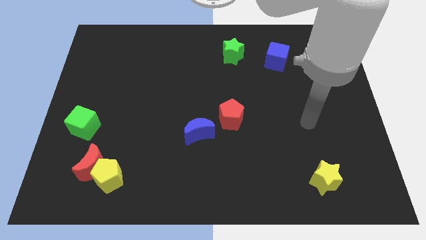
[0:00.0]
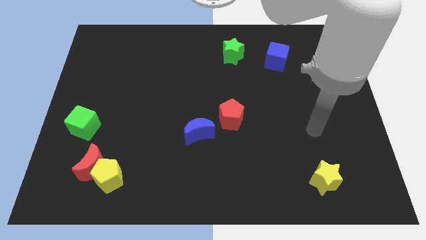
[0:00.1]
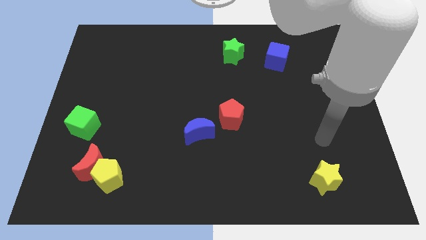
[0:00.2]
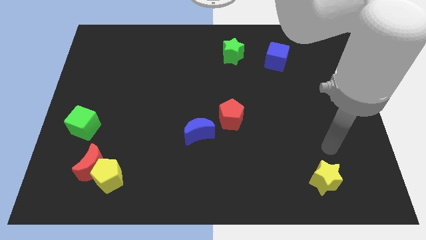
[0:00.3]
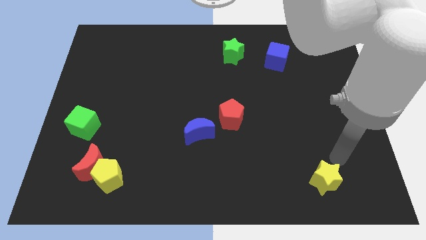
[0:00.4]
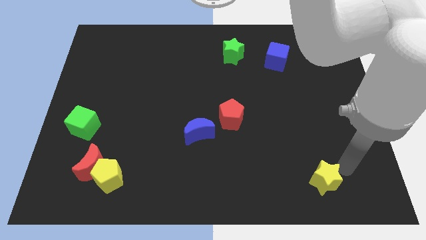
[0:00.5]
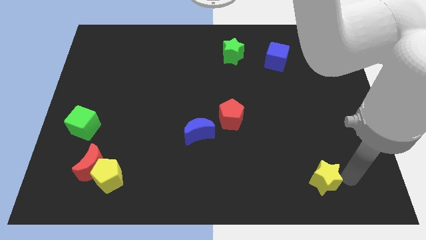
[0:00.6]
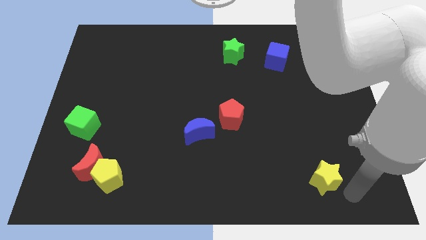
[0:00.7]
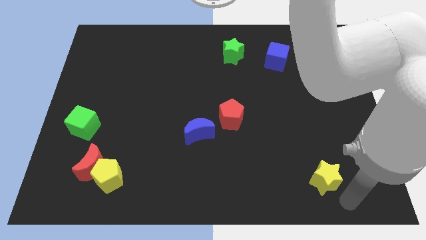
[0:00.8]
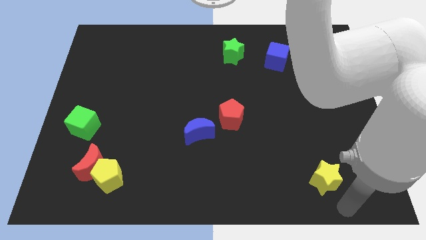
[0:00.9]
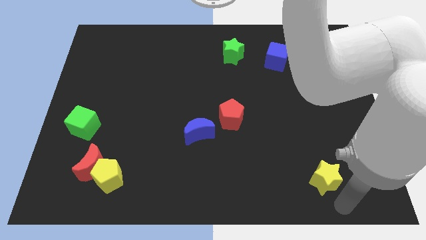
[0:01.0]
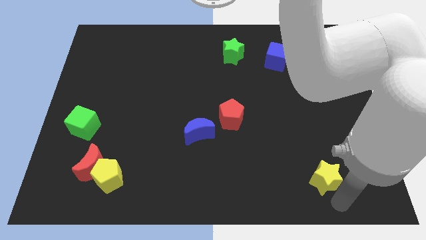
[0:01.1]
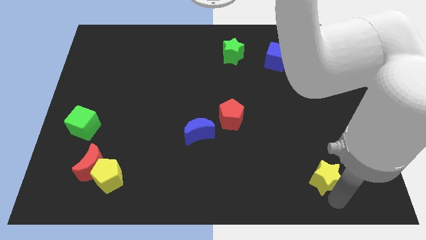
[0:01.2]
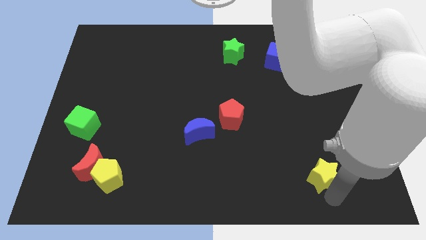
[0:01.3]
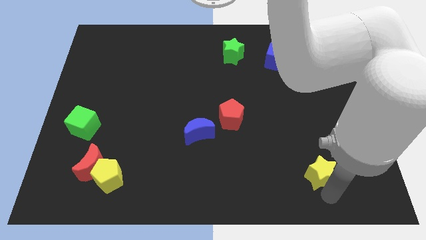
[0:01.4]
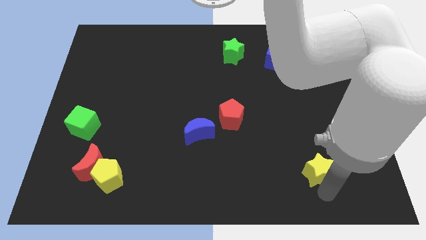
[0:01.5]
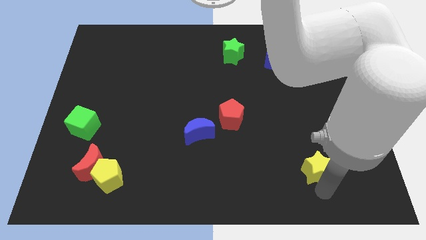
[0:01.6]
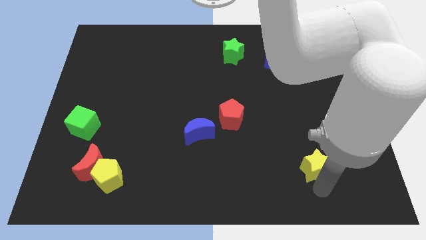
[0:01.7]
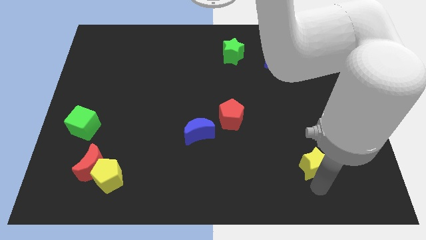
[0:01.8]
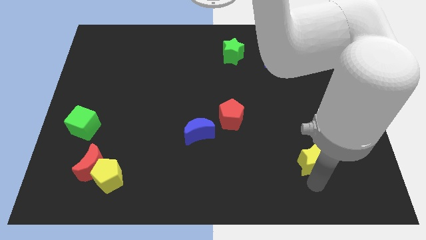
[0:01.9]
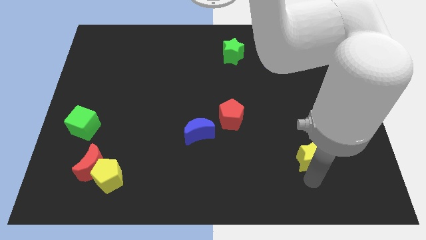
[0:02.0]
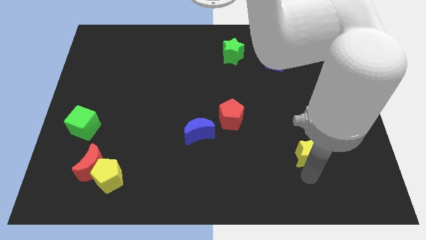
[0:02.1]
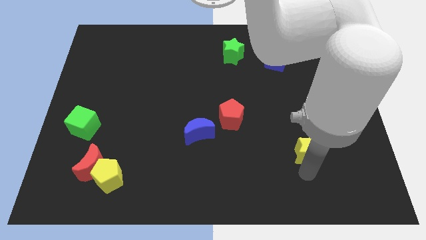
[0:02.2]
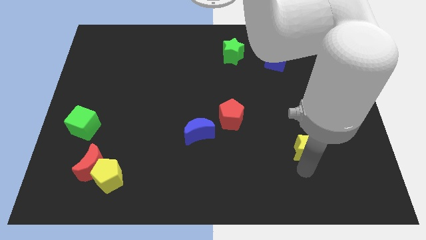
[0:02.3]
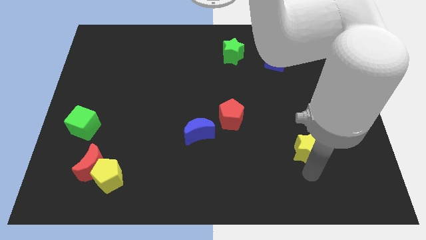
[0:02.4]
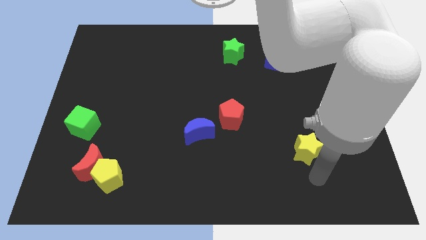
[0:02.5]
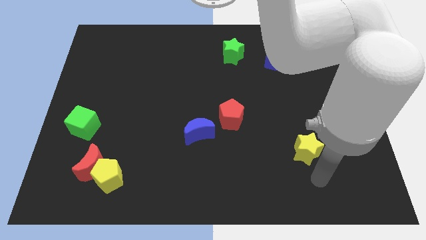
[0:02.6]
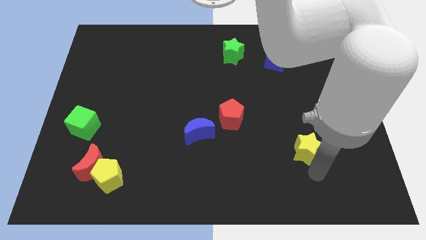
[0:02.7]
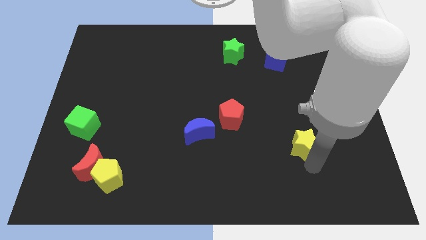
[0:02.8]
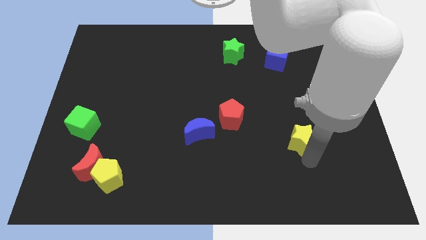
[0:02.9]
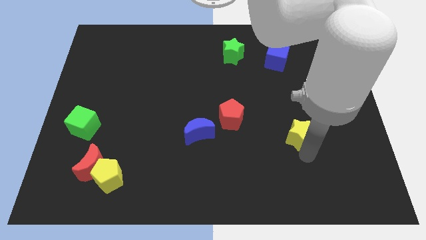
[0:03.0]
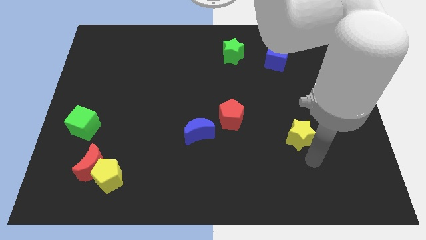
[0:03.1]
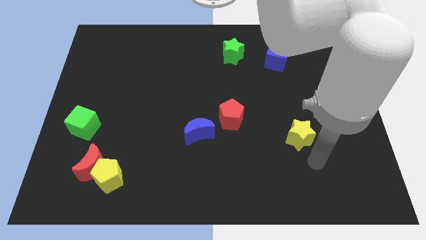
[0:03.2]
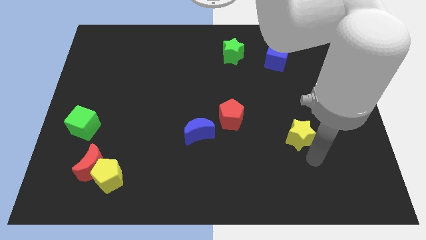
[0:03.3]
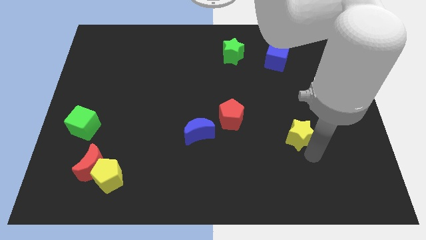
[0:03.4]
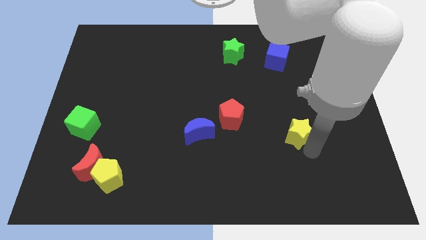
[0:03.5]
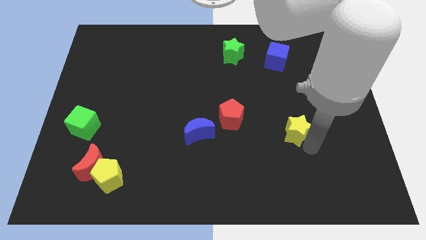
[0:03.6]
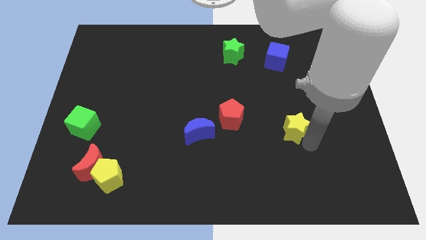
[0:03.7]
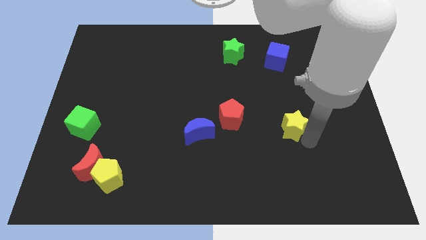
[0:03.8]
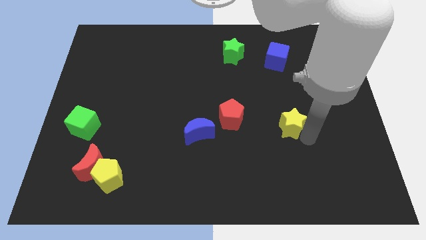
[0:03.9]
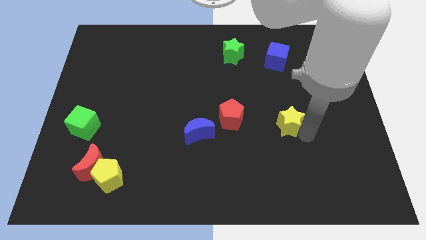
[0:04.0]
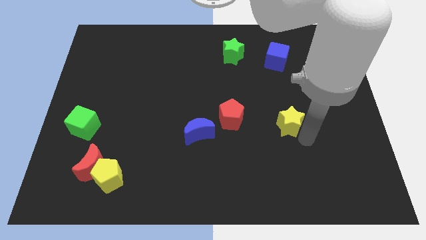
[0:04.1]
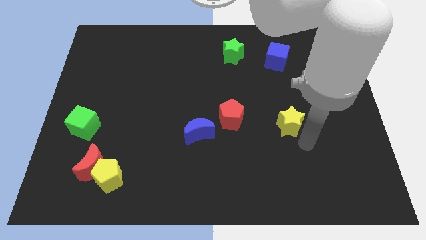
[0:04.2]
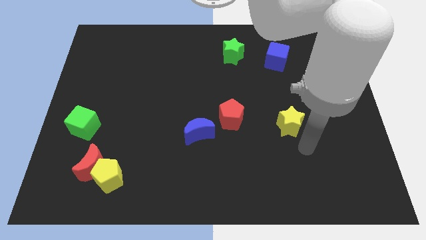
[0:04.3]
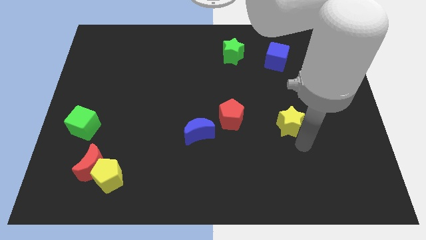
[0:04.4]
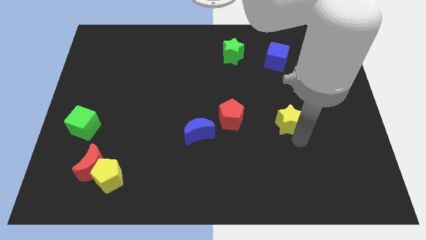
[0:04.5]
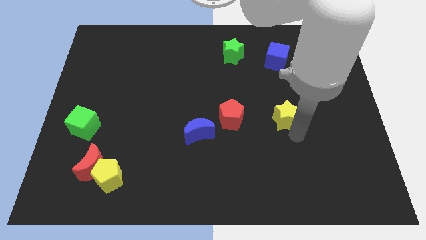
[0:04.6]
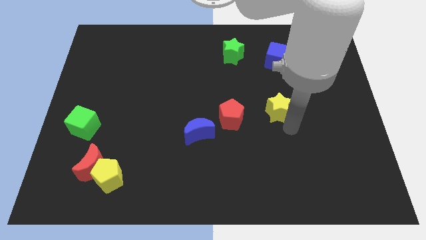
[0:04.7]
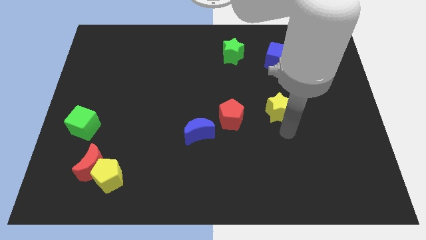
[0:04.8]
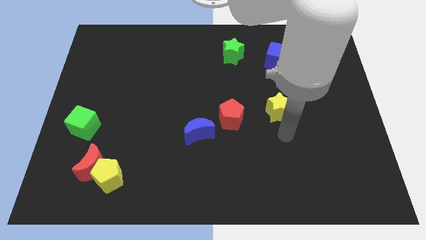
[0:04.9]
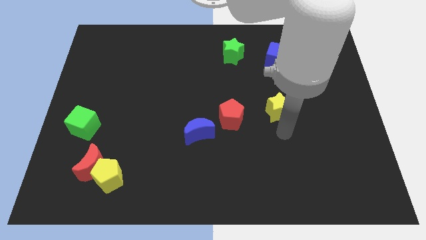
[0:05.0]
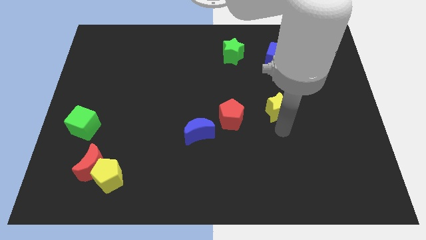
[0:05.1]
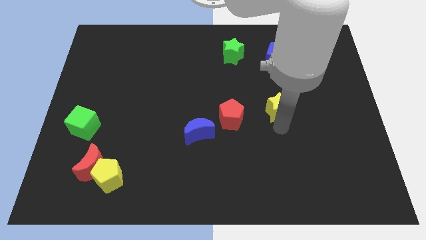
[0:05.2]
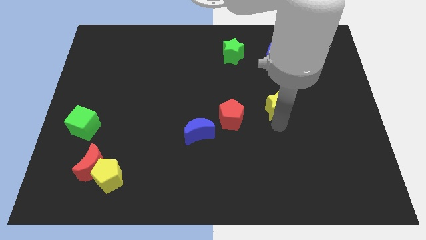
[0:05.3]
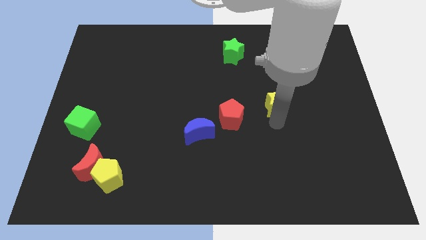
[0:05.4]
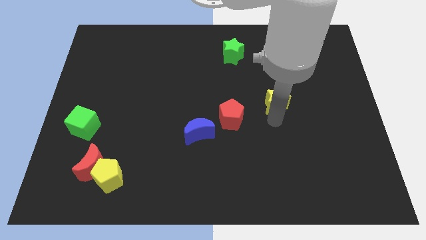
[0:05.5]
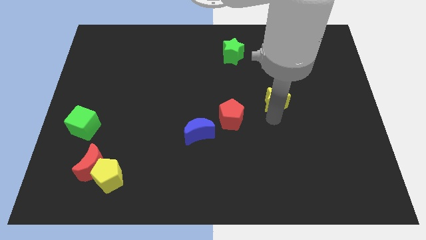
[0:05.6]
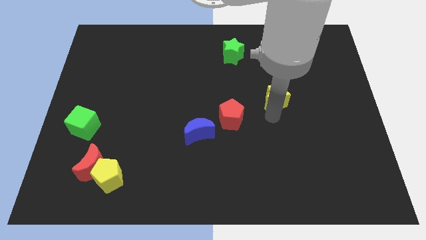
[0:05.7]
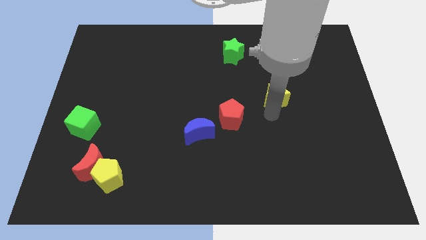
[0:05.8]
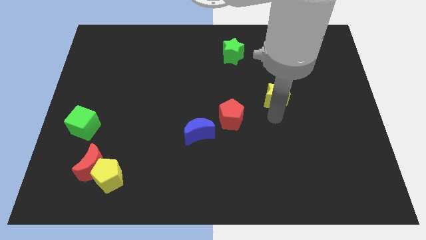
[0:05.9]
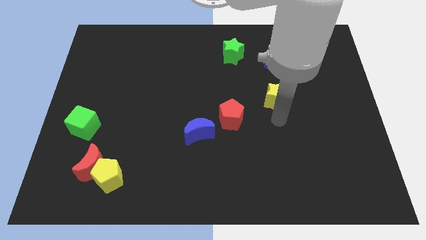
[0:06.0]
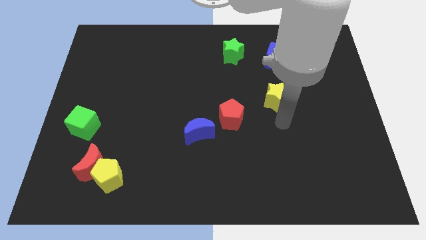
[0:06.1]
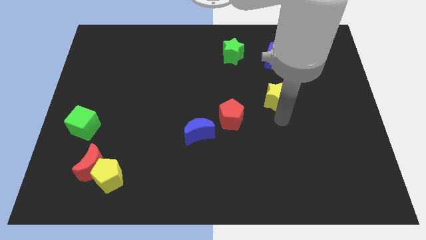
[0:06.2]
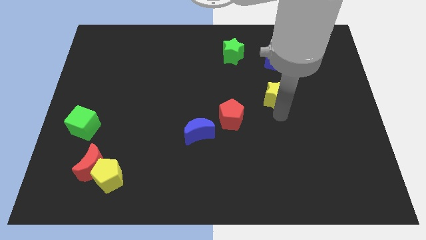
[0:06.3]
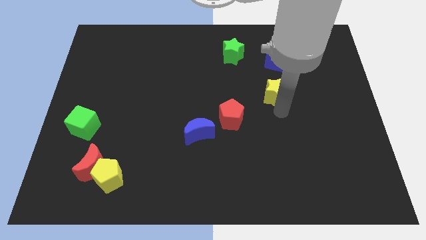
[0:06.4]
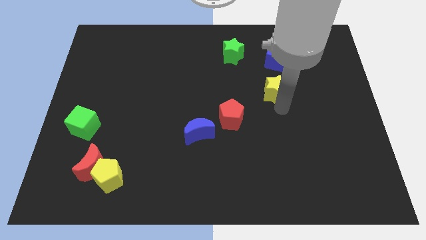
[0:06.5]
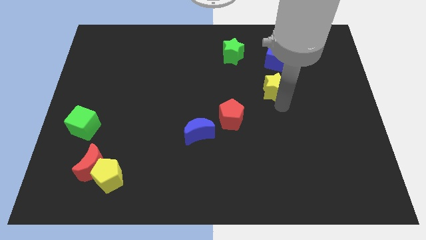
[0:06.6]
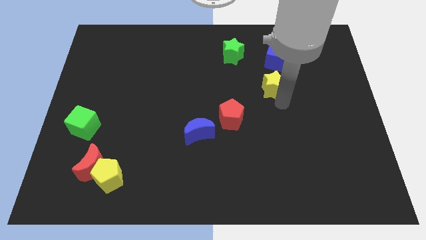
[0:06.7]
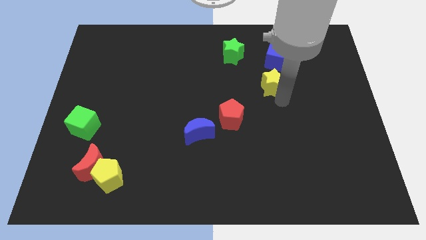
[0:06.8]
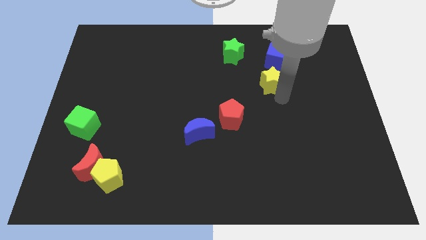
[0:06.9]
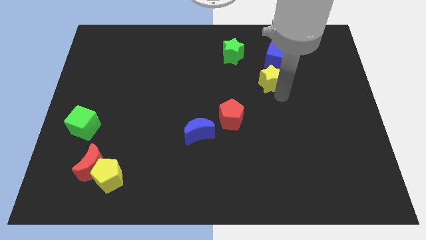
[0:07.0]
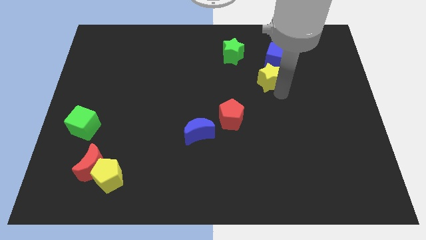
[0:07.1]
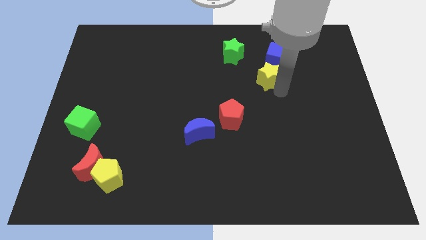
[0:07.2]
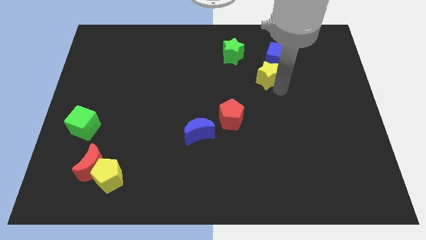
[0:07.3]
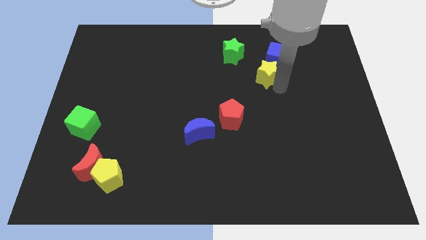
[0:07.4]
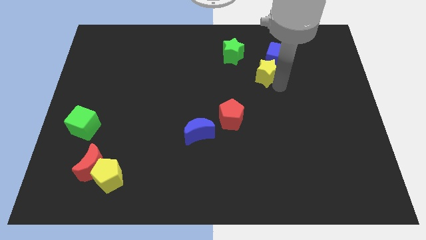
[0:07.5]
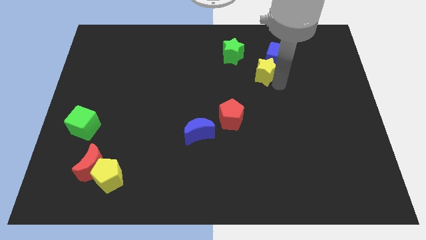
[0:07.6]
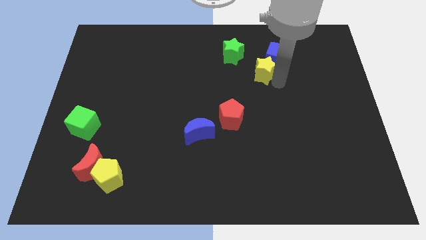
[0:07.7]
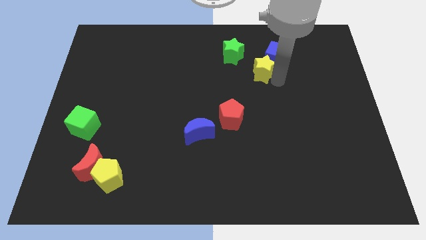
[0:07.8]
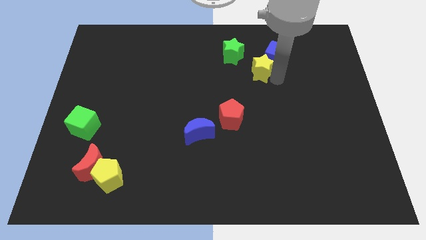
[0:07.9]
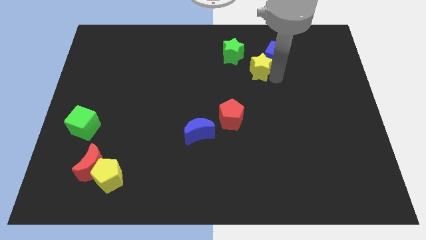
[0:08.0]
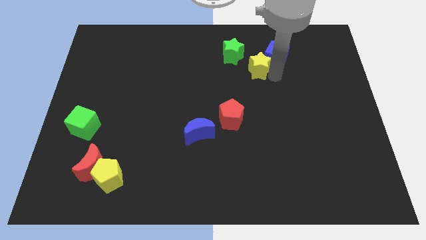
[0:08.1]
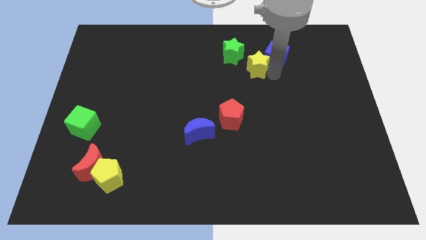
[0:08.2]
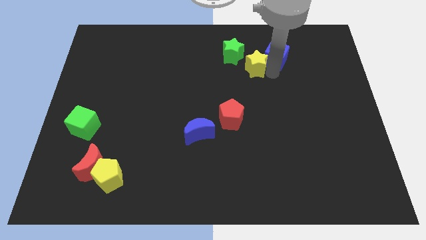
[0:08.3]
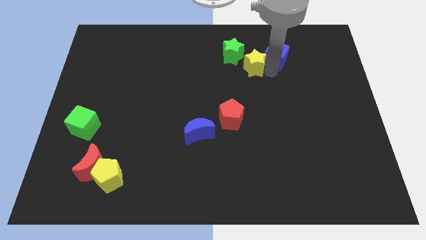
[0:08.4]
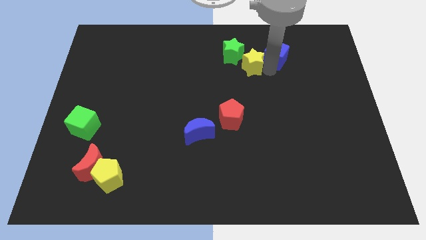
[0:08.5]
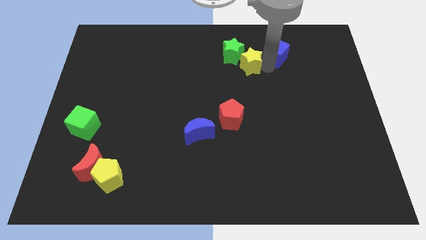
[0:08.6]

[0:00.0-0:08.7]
put the yellow star to the green star
